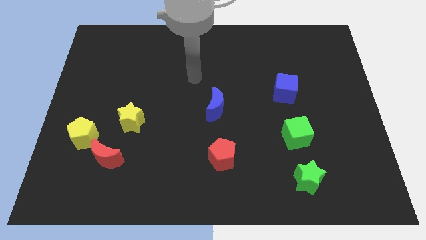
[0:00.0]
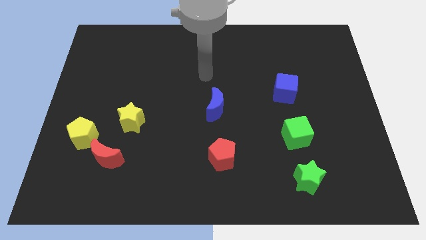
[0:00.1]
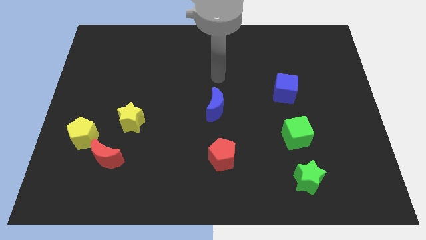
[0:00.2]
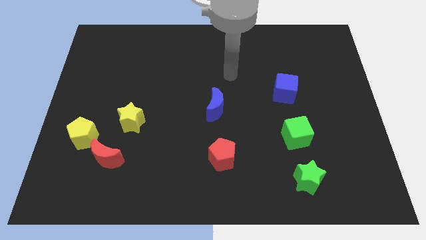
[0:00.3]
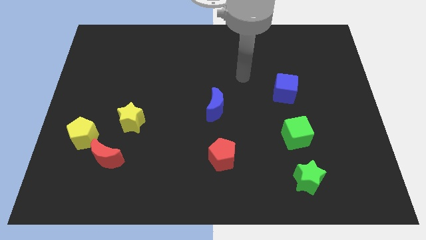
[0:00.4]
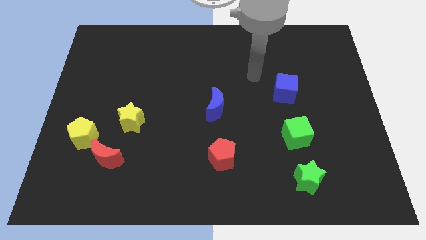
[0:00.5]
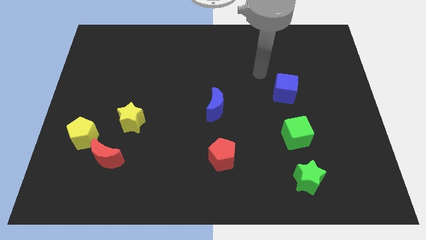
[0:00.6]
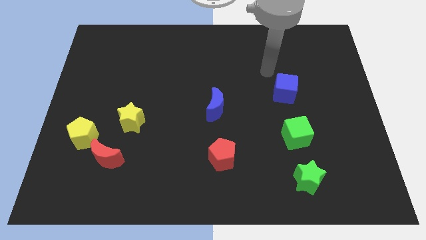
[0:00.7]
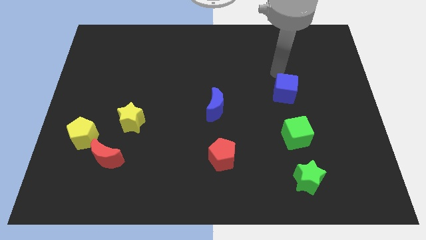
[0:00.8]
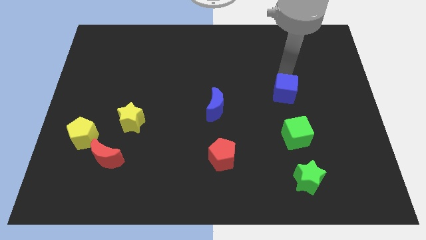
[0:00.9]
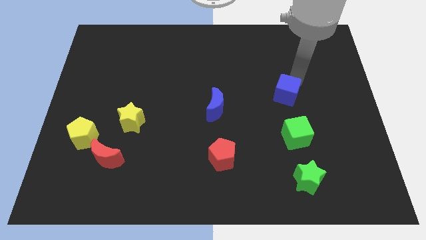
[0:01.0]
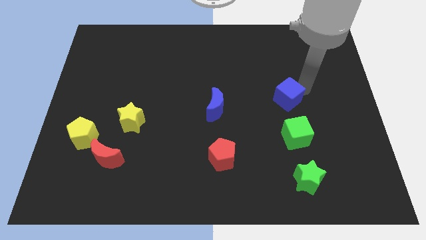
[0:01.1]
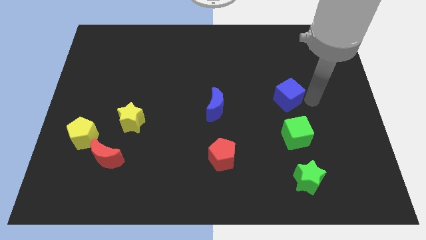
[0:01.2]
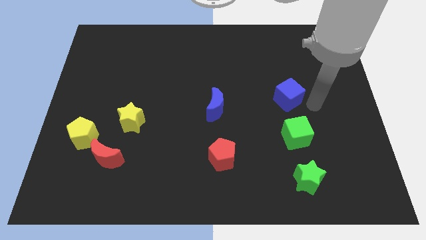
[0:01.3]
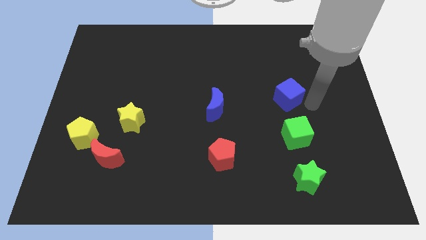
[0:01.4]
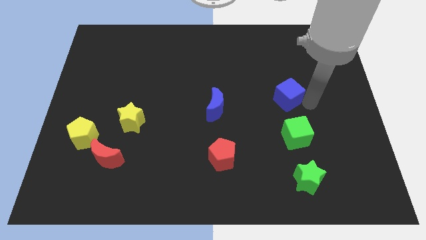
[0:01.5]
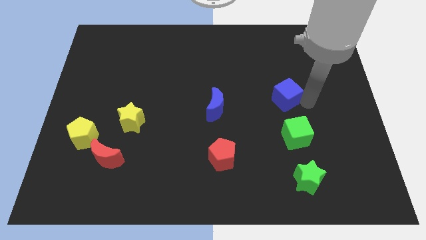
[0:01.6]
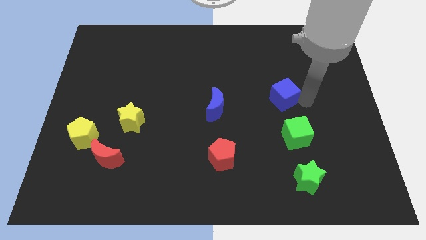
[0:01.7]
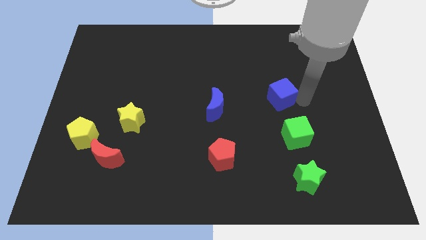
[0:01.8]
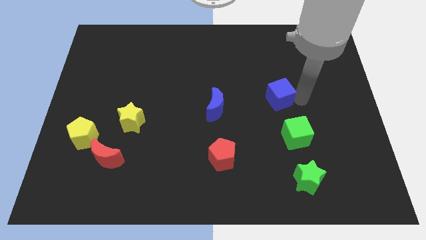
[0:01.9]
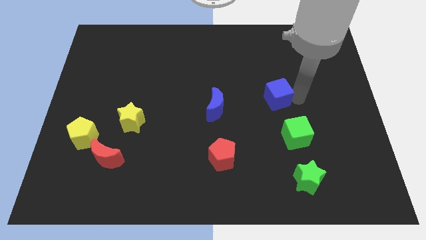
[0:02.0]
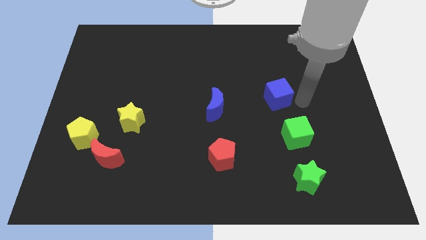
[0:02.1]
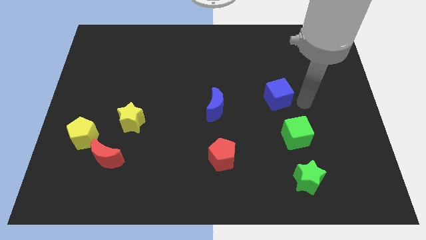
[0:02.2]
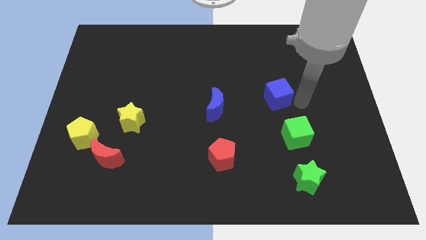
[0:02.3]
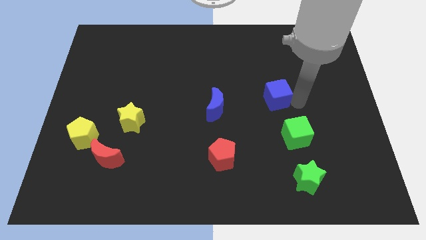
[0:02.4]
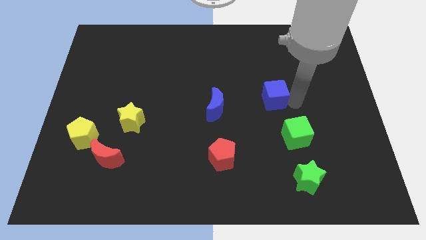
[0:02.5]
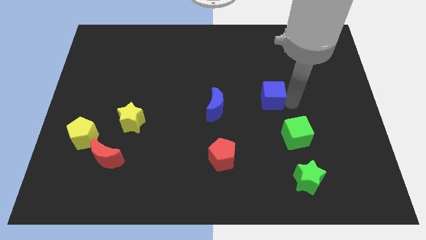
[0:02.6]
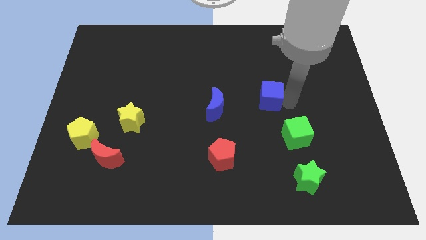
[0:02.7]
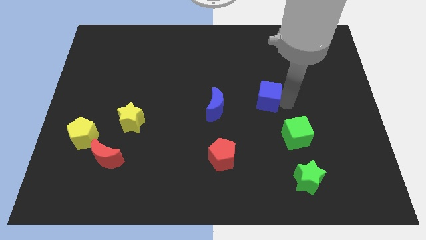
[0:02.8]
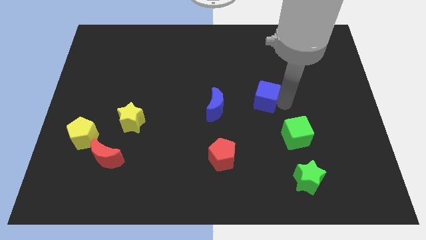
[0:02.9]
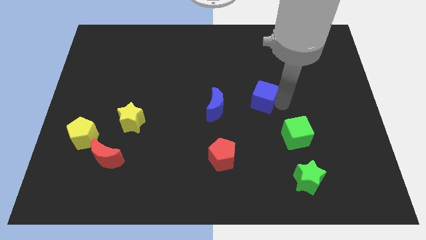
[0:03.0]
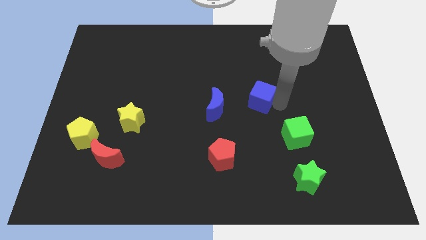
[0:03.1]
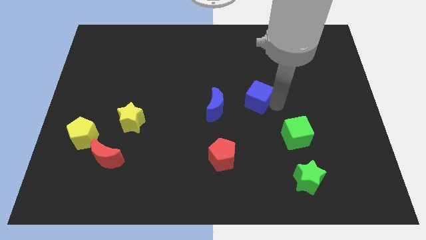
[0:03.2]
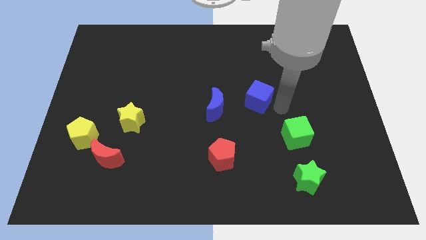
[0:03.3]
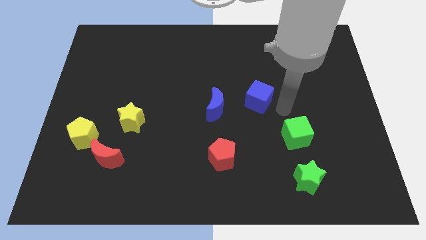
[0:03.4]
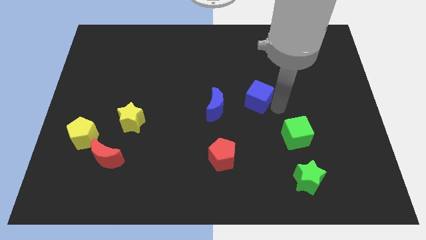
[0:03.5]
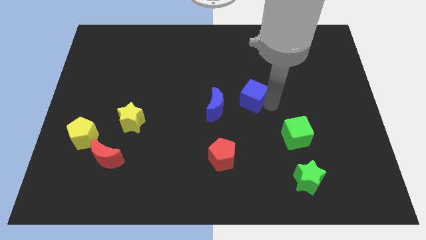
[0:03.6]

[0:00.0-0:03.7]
push the blue cube to the left somewhat

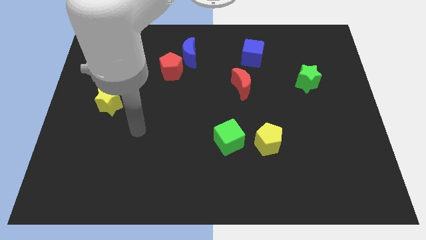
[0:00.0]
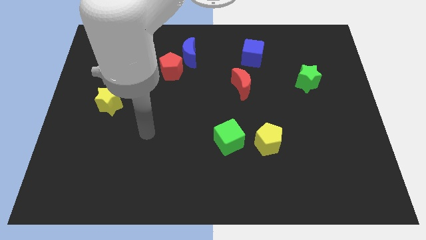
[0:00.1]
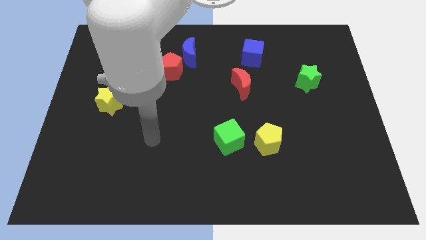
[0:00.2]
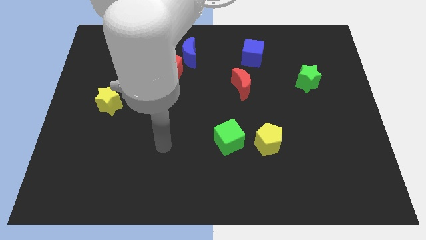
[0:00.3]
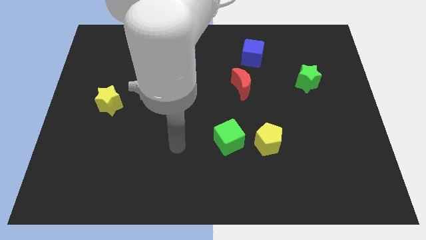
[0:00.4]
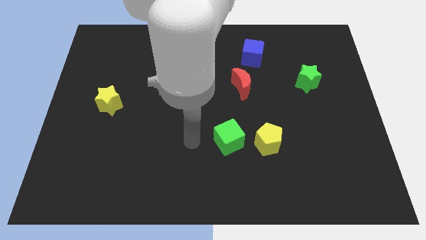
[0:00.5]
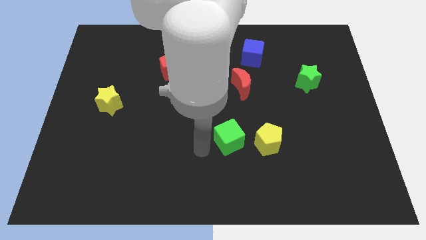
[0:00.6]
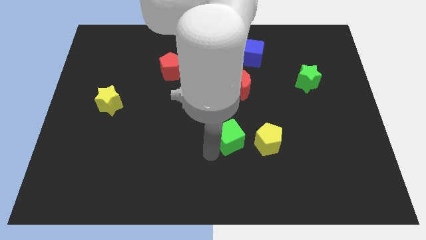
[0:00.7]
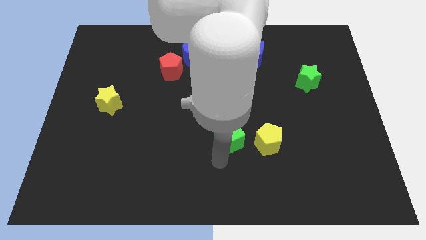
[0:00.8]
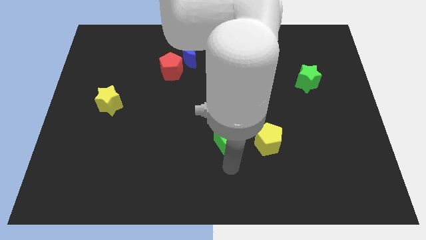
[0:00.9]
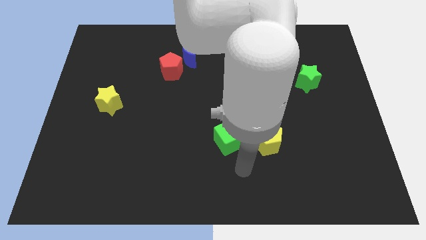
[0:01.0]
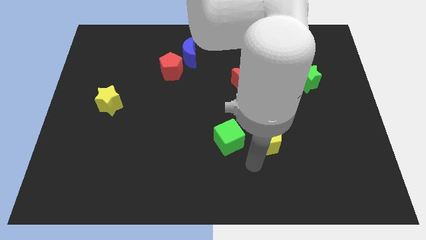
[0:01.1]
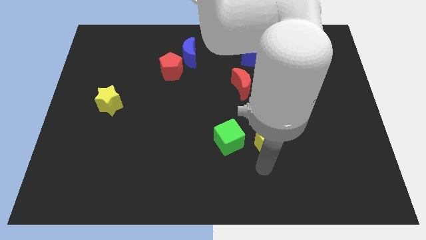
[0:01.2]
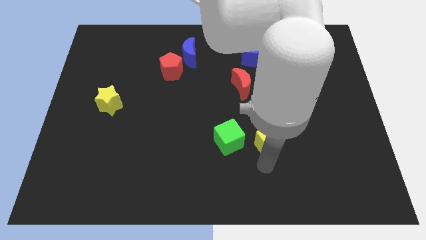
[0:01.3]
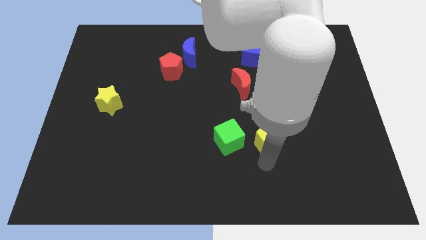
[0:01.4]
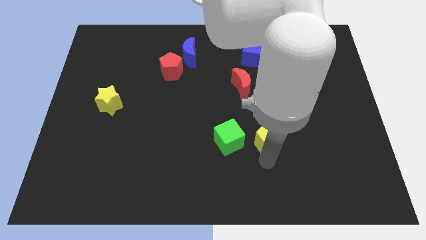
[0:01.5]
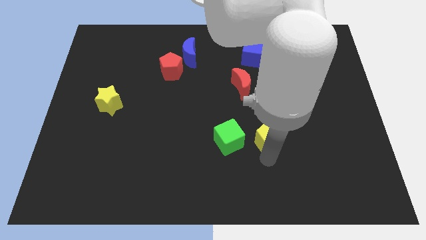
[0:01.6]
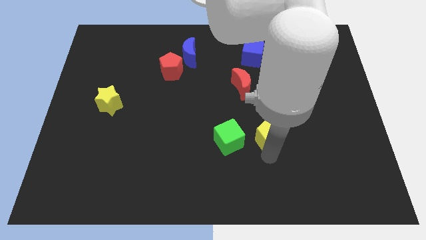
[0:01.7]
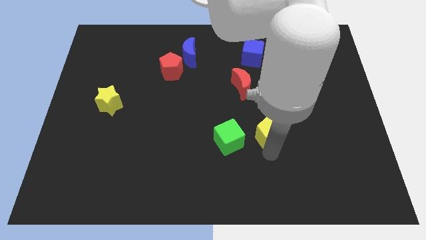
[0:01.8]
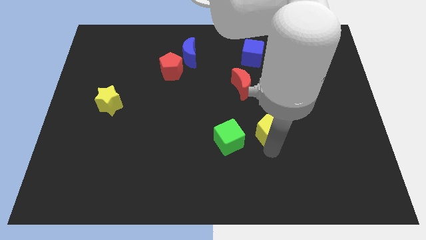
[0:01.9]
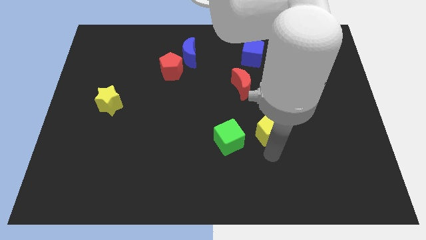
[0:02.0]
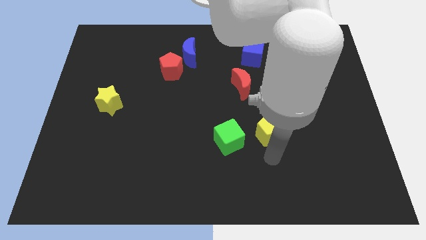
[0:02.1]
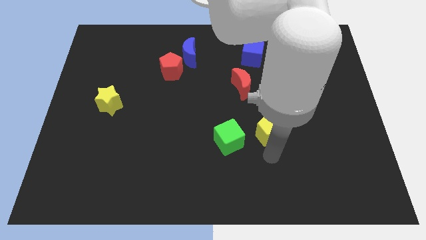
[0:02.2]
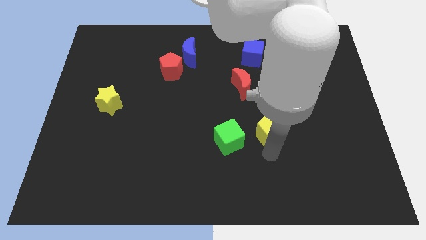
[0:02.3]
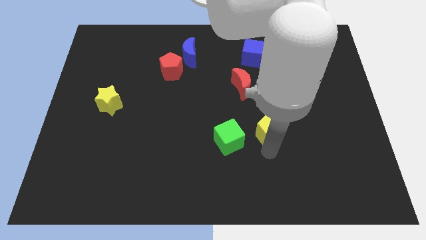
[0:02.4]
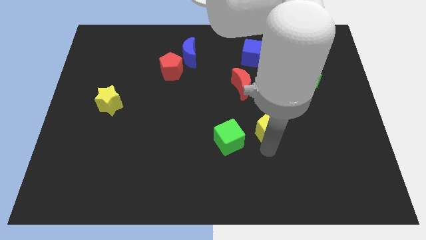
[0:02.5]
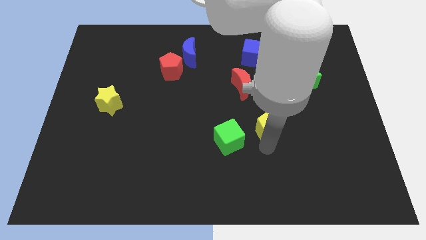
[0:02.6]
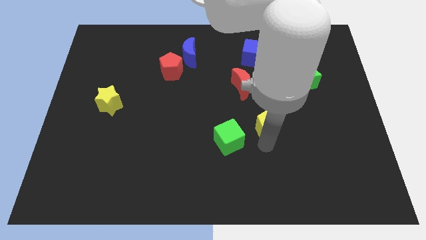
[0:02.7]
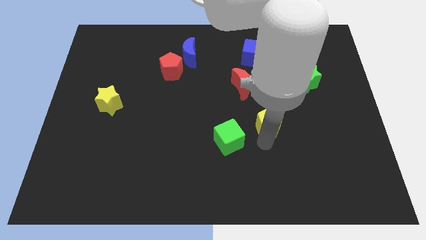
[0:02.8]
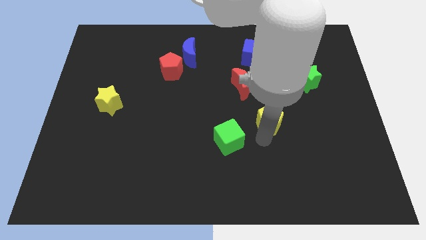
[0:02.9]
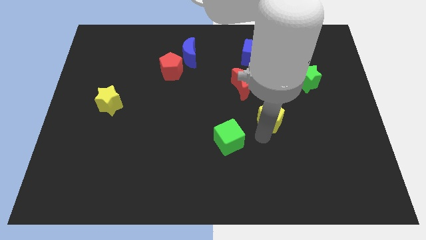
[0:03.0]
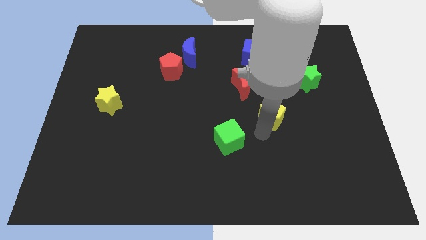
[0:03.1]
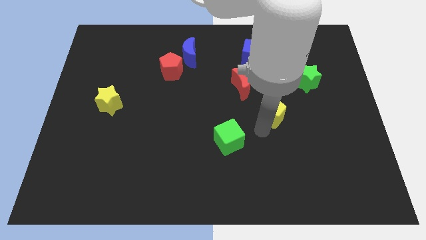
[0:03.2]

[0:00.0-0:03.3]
slightly slide the yellow pentagon upwards

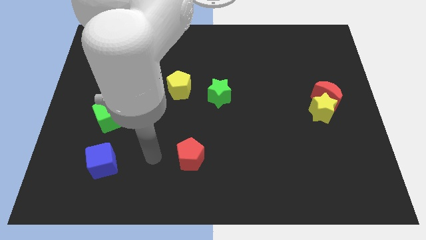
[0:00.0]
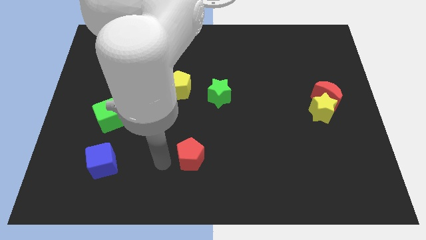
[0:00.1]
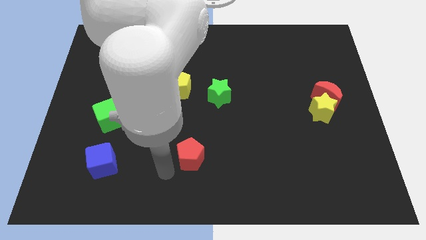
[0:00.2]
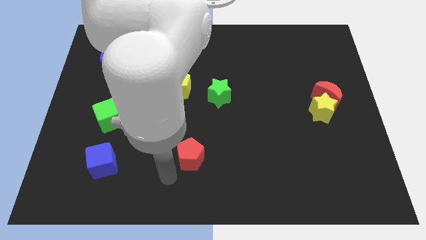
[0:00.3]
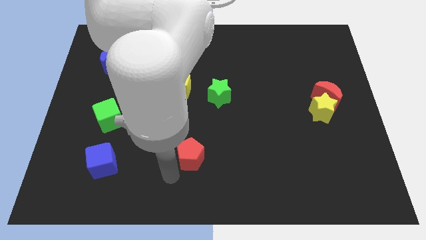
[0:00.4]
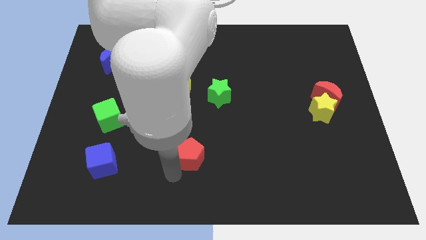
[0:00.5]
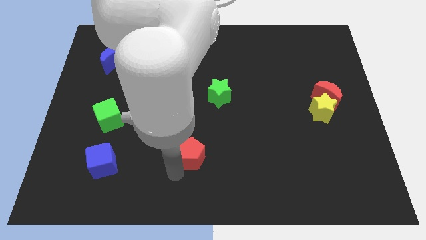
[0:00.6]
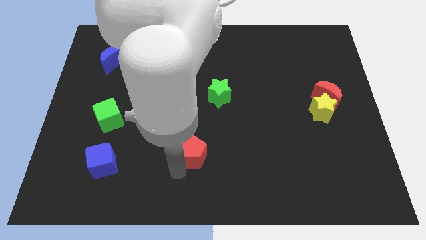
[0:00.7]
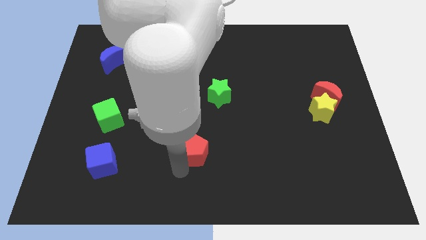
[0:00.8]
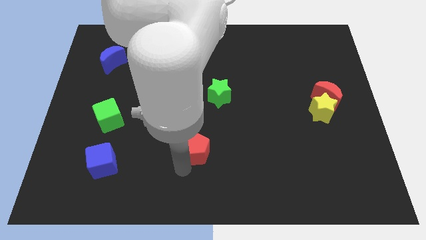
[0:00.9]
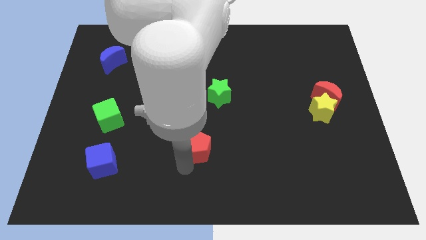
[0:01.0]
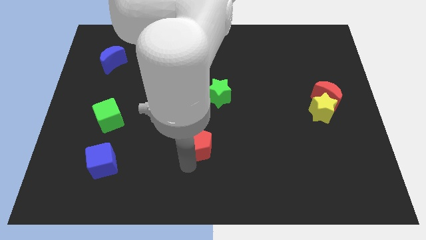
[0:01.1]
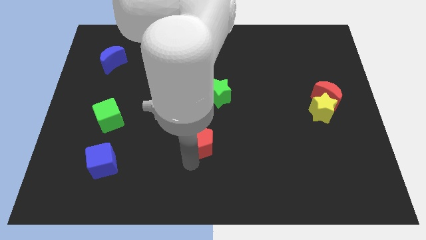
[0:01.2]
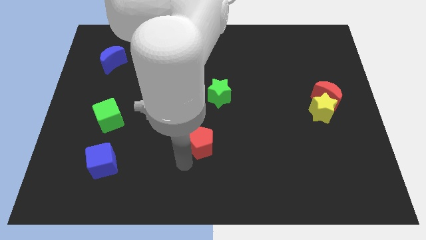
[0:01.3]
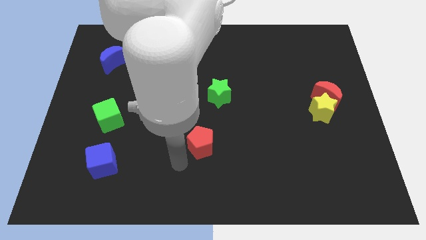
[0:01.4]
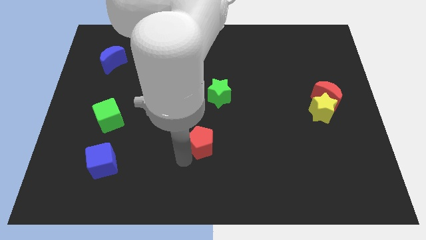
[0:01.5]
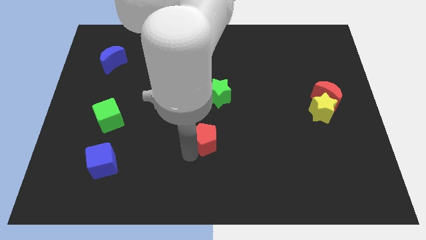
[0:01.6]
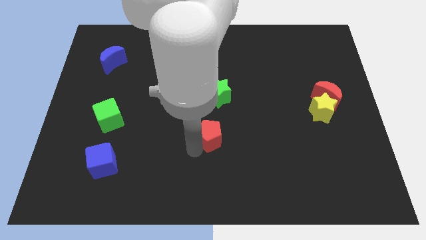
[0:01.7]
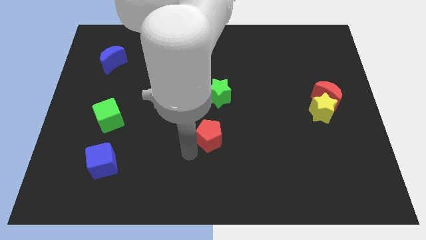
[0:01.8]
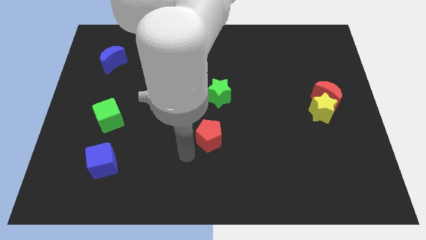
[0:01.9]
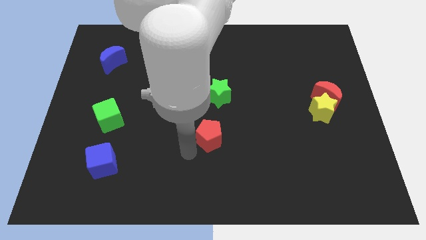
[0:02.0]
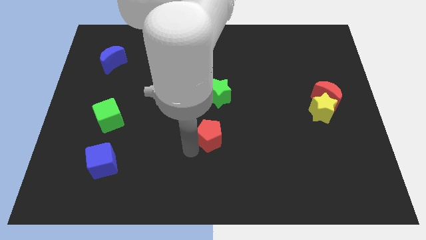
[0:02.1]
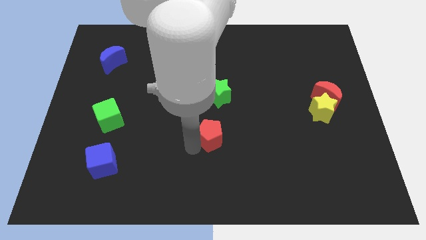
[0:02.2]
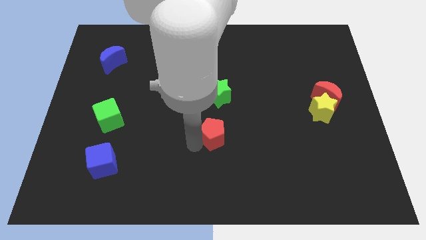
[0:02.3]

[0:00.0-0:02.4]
move the red pentagon a little bit diagonally upwards and right
